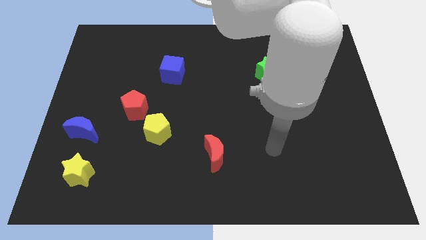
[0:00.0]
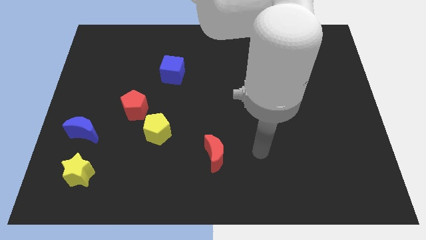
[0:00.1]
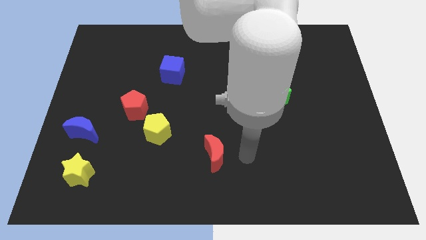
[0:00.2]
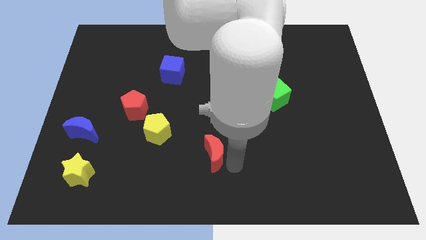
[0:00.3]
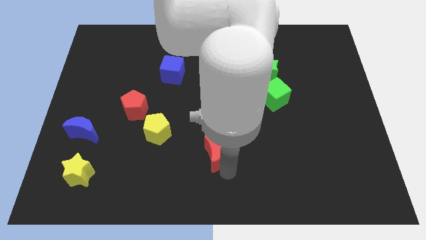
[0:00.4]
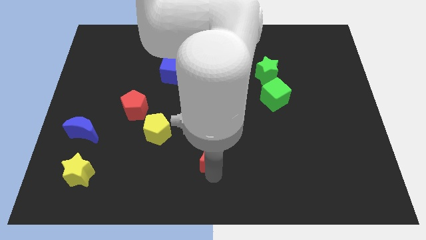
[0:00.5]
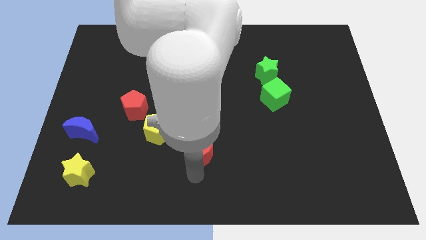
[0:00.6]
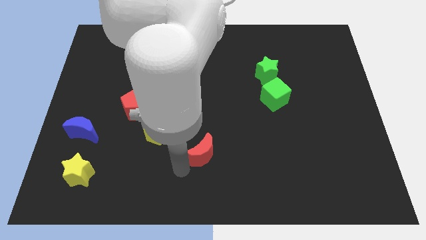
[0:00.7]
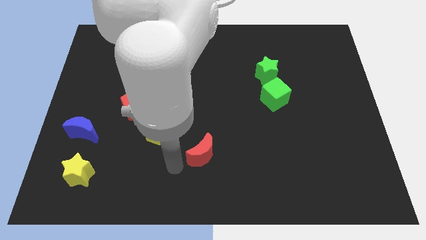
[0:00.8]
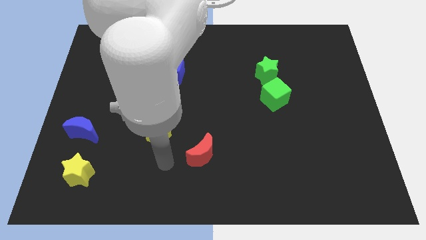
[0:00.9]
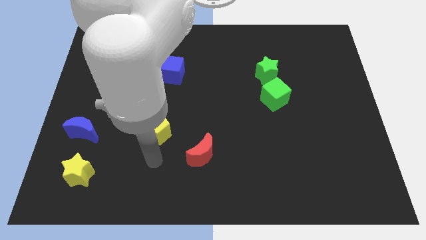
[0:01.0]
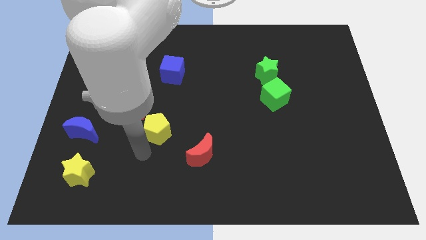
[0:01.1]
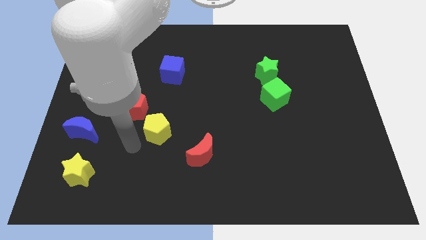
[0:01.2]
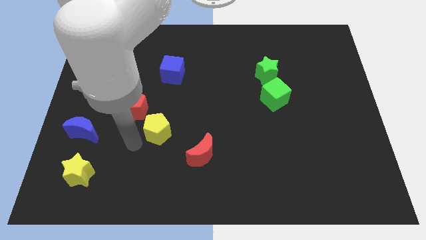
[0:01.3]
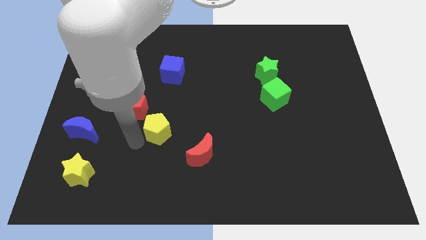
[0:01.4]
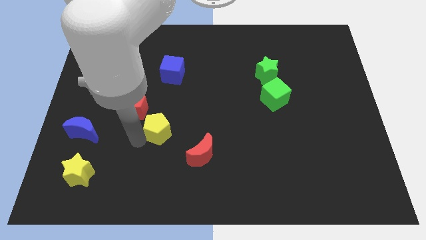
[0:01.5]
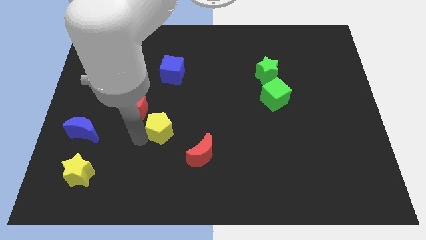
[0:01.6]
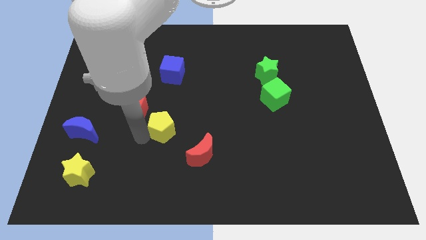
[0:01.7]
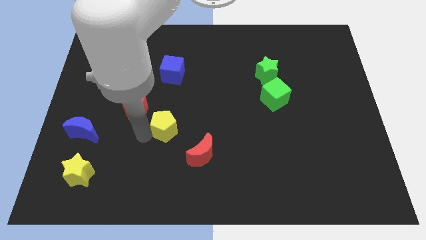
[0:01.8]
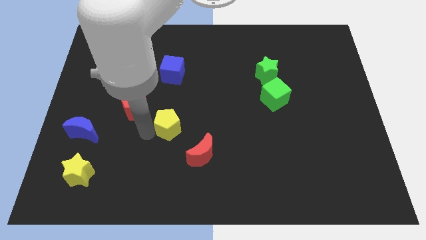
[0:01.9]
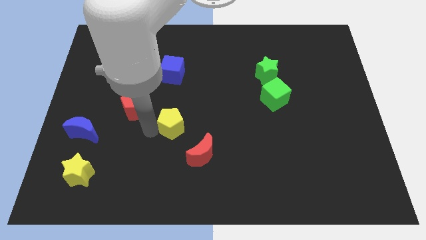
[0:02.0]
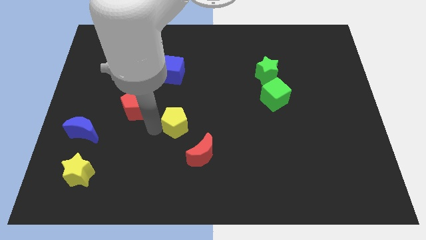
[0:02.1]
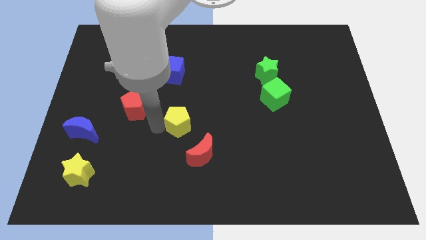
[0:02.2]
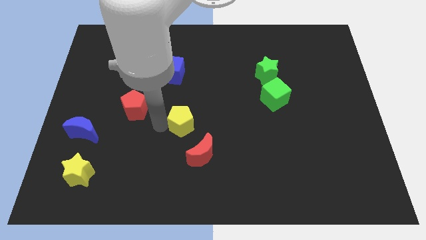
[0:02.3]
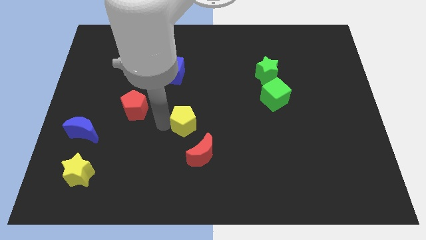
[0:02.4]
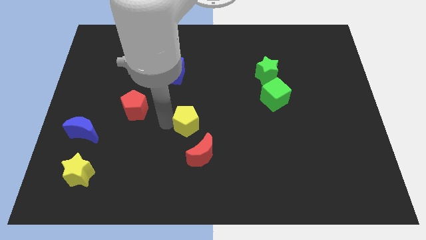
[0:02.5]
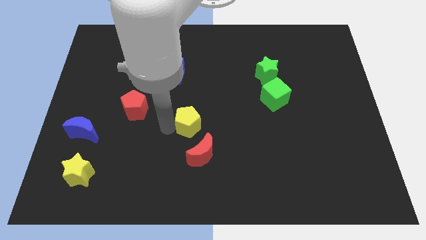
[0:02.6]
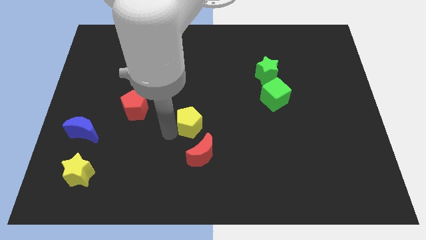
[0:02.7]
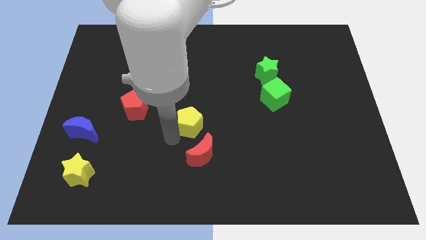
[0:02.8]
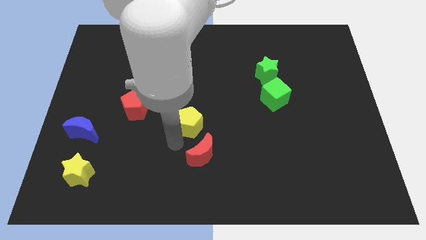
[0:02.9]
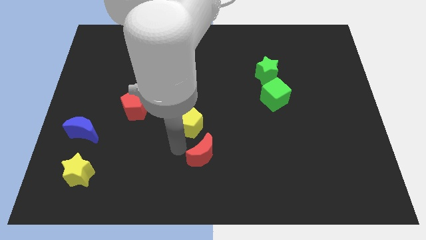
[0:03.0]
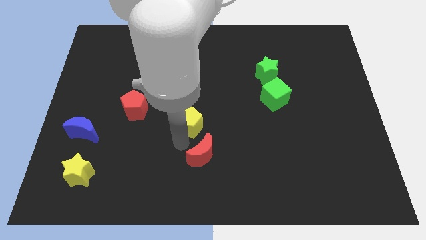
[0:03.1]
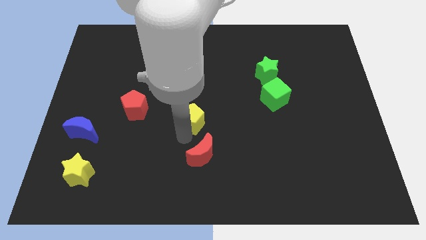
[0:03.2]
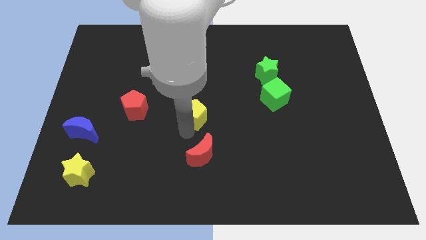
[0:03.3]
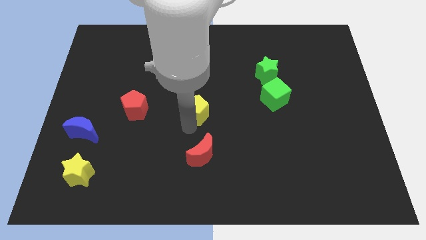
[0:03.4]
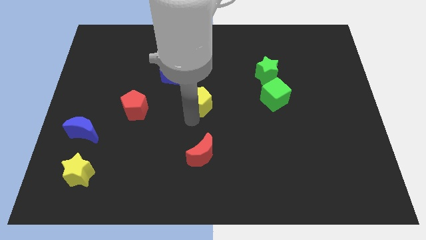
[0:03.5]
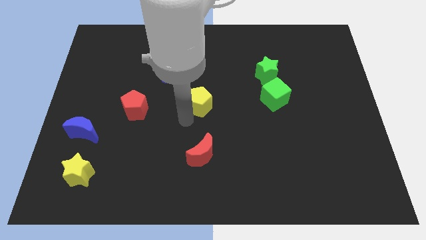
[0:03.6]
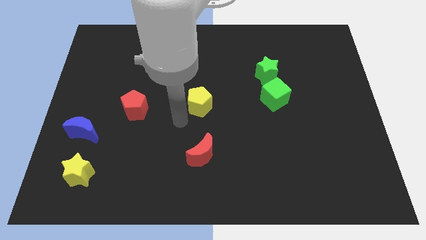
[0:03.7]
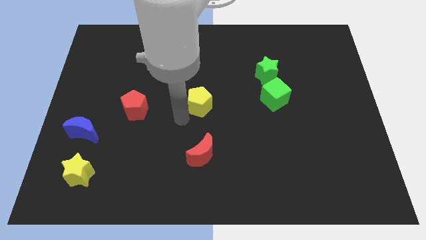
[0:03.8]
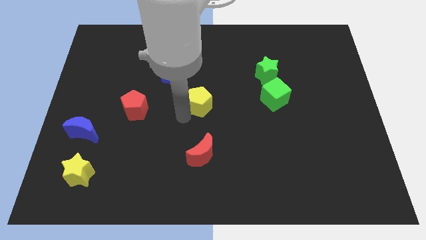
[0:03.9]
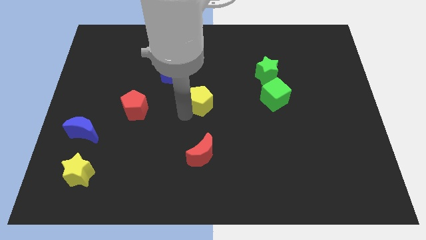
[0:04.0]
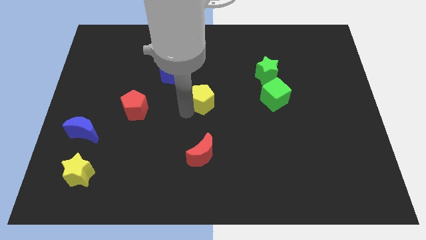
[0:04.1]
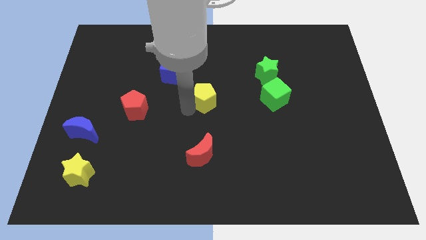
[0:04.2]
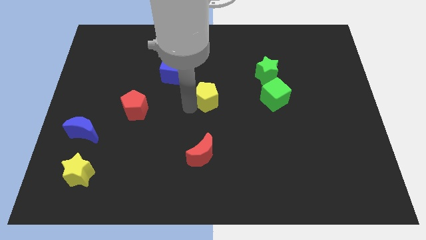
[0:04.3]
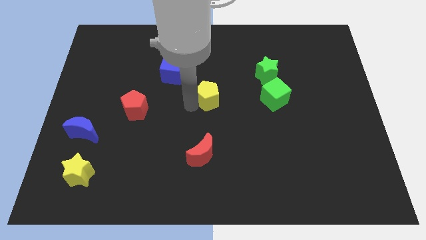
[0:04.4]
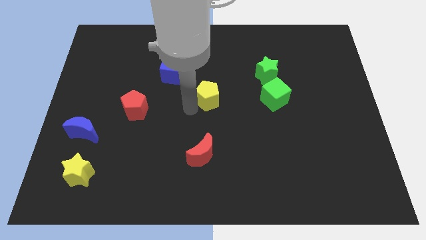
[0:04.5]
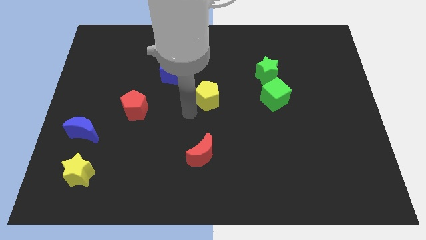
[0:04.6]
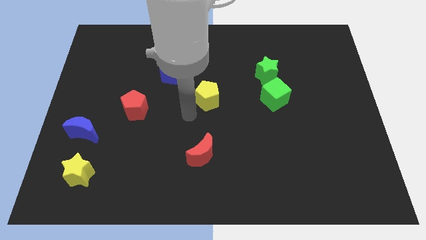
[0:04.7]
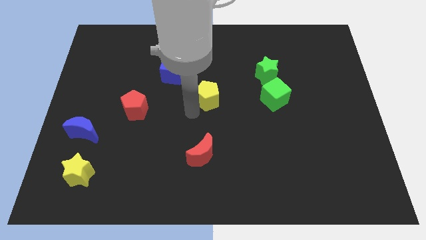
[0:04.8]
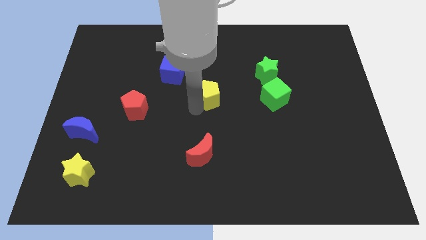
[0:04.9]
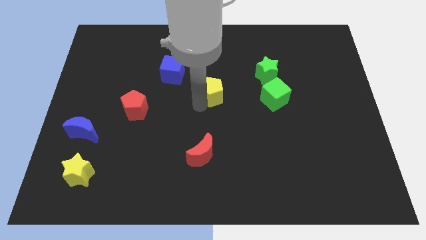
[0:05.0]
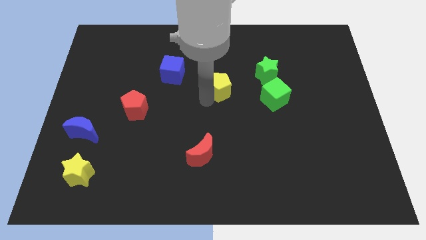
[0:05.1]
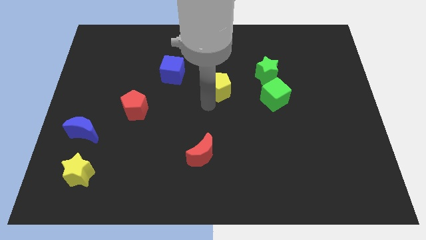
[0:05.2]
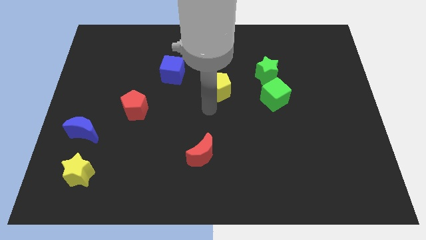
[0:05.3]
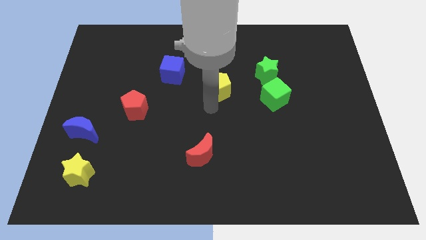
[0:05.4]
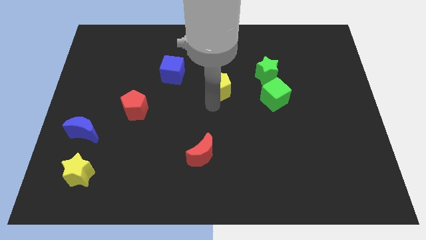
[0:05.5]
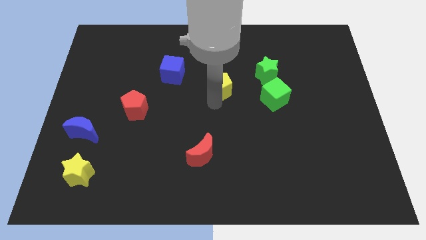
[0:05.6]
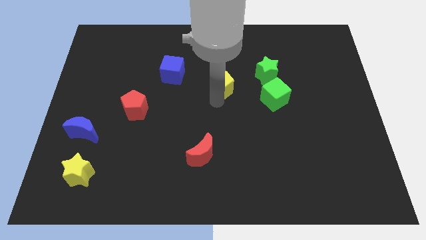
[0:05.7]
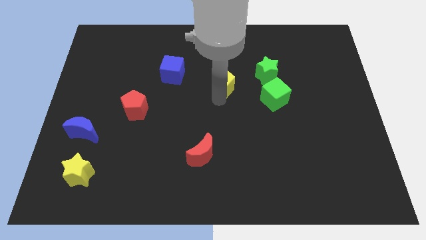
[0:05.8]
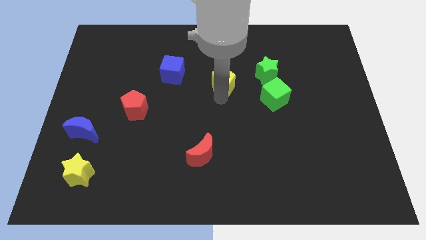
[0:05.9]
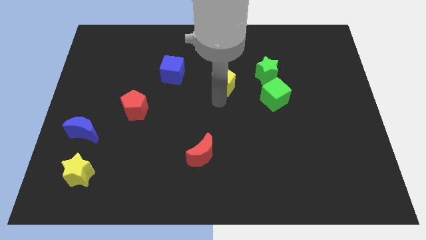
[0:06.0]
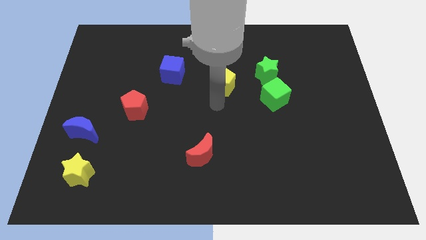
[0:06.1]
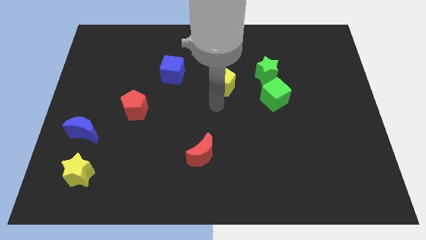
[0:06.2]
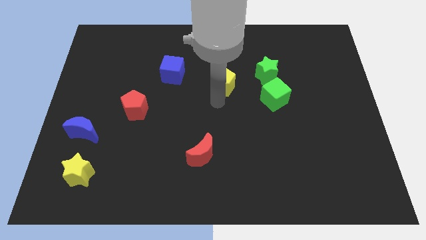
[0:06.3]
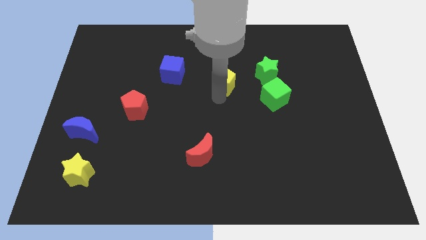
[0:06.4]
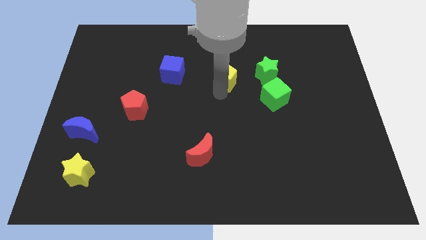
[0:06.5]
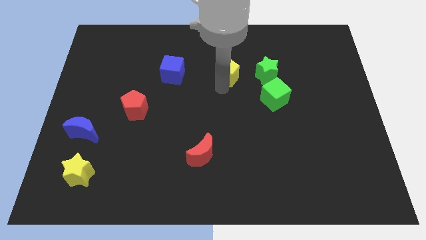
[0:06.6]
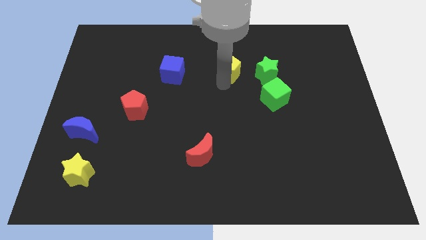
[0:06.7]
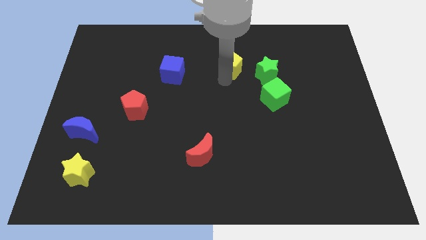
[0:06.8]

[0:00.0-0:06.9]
put the yellow pentagon to the top left of the green star

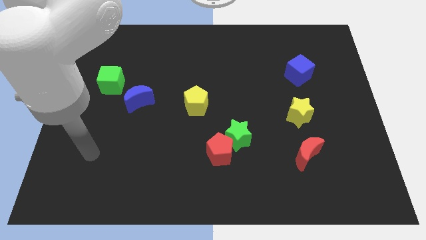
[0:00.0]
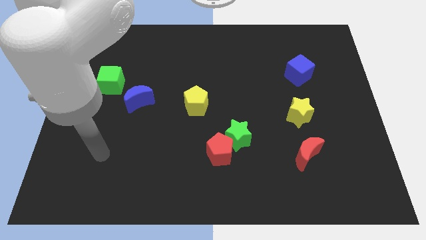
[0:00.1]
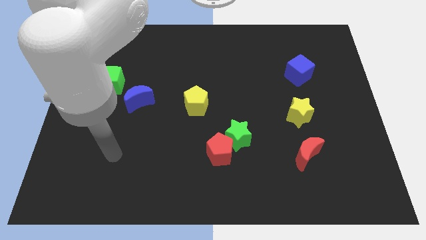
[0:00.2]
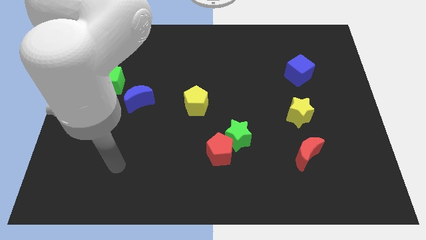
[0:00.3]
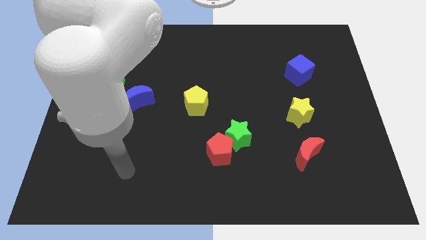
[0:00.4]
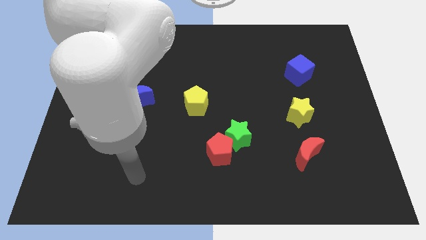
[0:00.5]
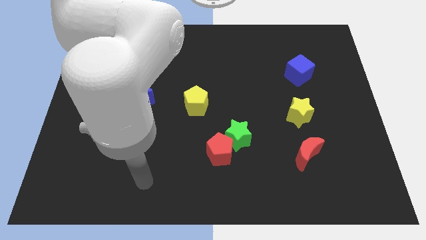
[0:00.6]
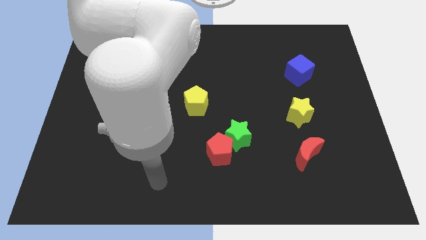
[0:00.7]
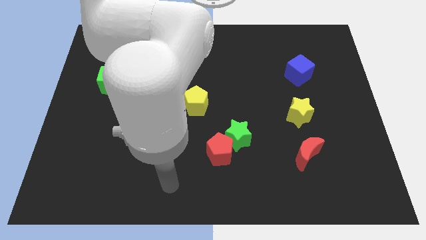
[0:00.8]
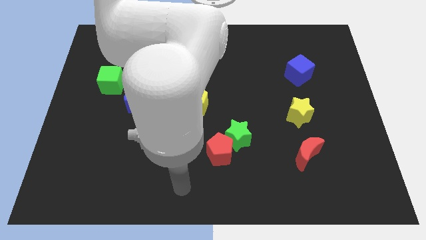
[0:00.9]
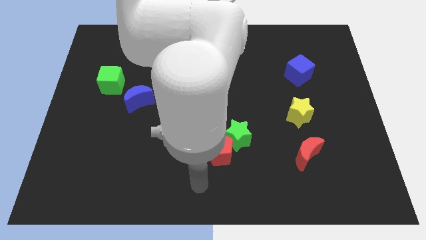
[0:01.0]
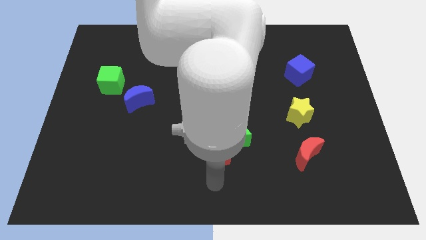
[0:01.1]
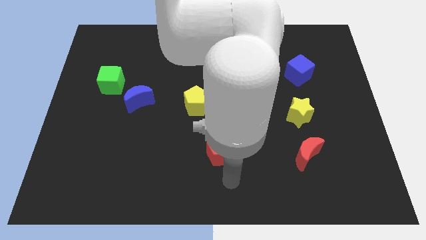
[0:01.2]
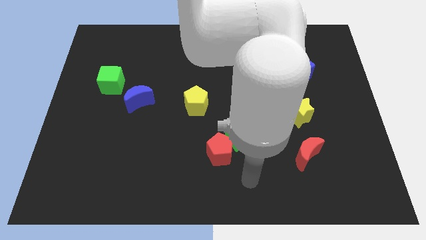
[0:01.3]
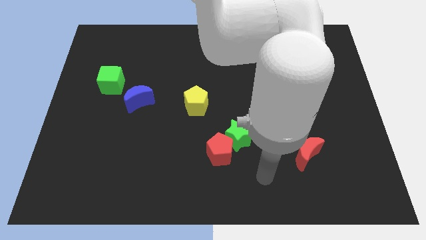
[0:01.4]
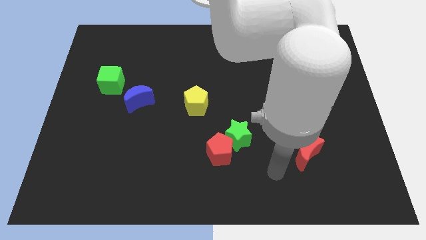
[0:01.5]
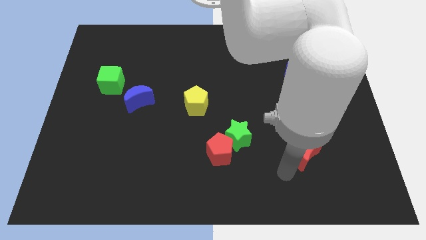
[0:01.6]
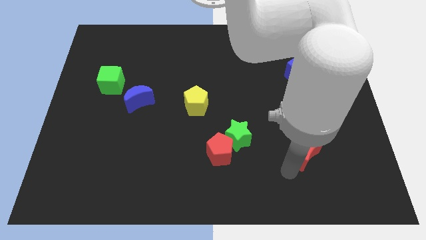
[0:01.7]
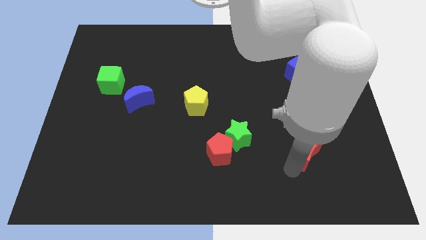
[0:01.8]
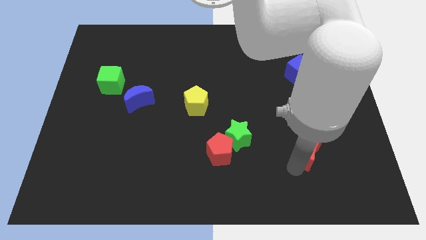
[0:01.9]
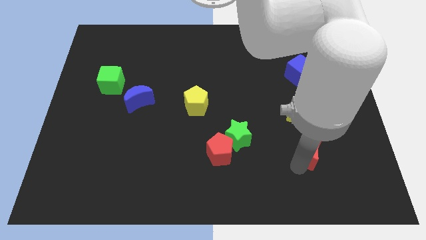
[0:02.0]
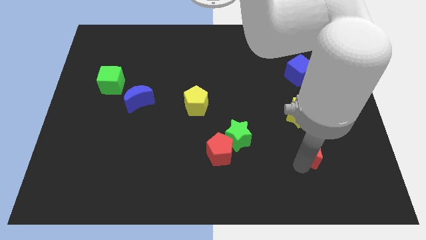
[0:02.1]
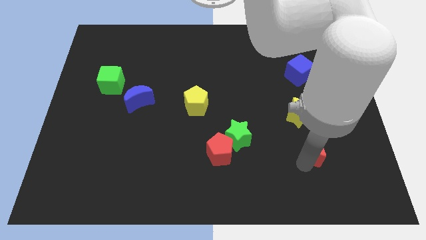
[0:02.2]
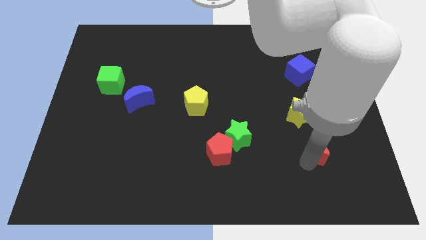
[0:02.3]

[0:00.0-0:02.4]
slide the red moon to the bottom right of the yellow star
